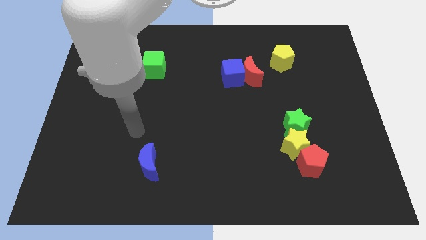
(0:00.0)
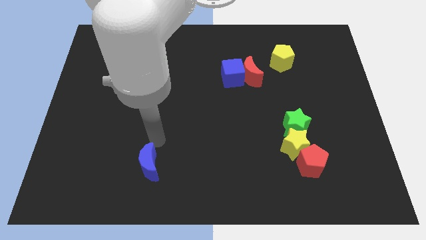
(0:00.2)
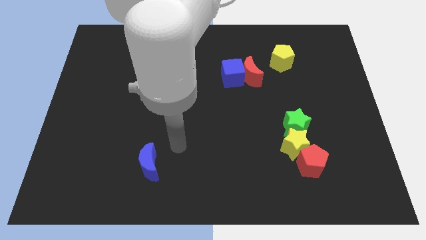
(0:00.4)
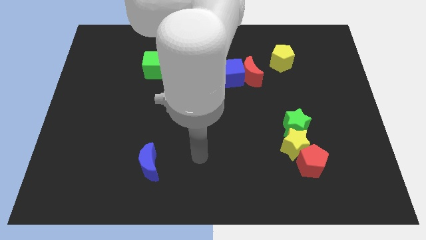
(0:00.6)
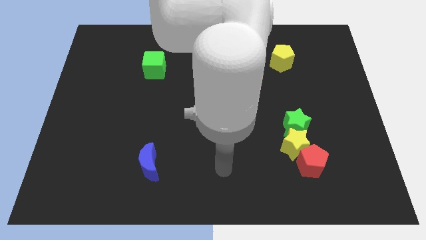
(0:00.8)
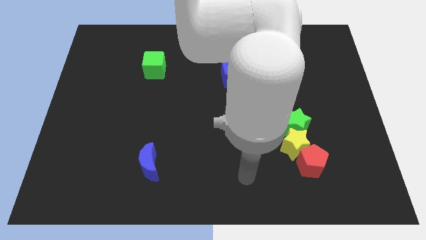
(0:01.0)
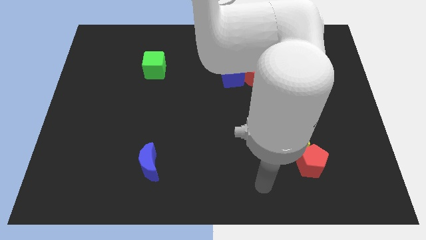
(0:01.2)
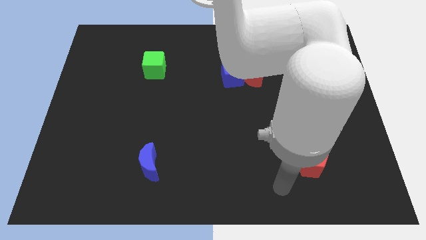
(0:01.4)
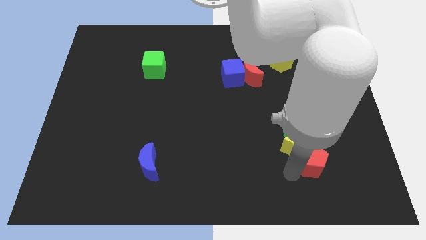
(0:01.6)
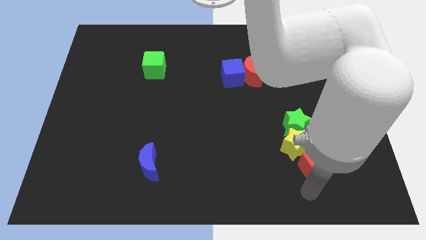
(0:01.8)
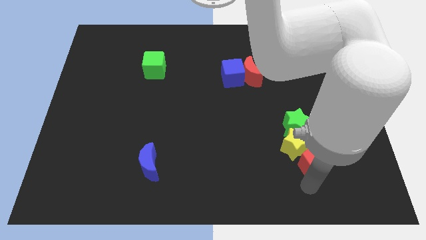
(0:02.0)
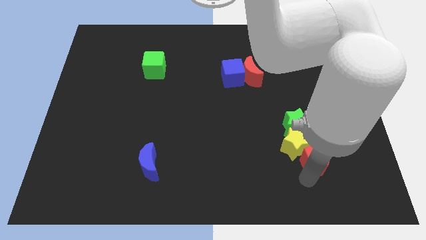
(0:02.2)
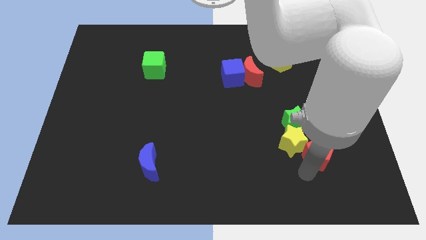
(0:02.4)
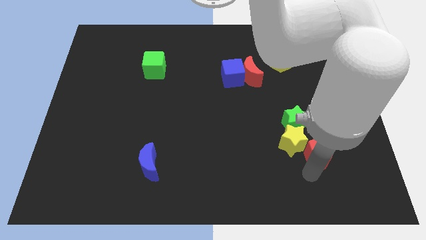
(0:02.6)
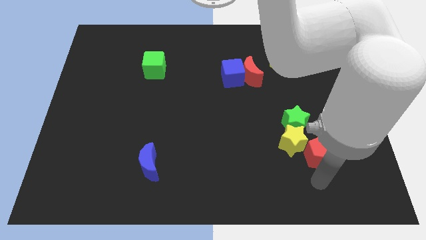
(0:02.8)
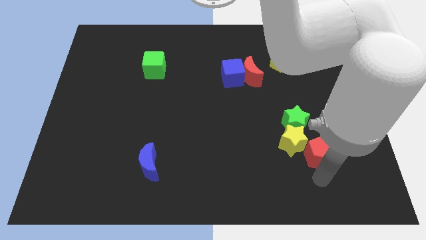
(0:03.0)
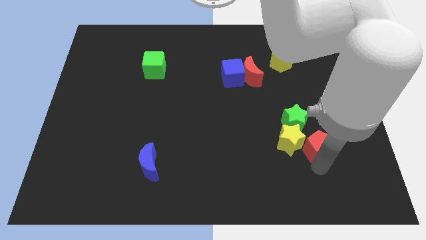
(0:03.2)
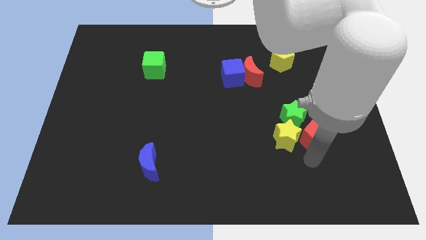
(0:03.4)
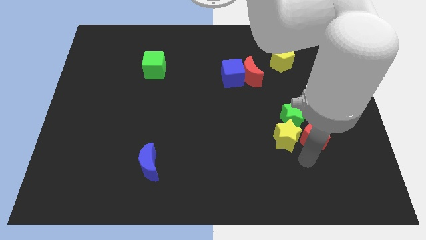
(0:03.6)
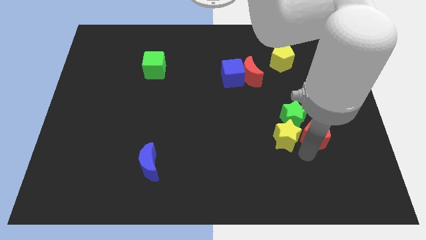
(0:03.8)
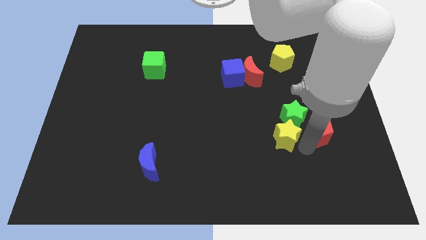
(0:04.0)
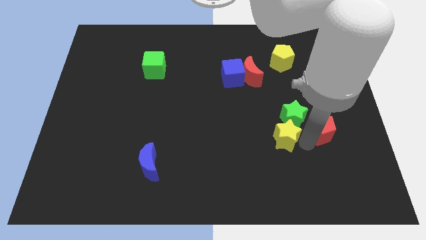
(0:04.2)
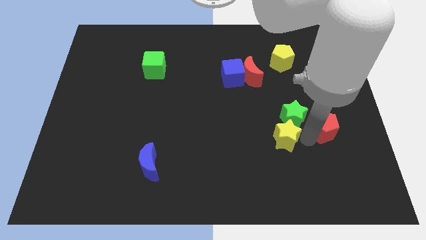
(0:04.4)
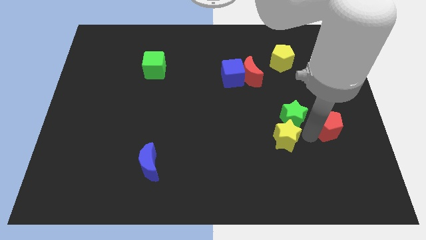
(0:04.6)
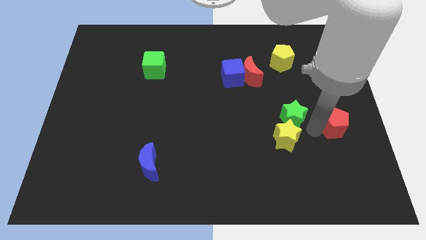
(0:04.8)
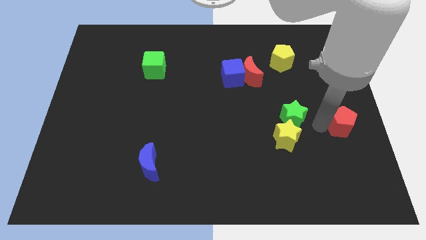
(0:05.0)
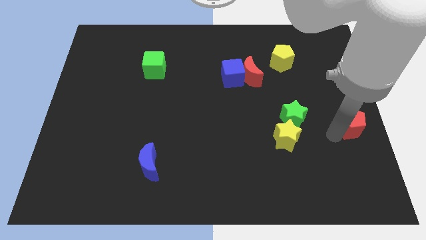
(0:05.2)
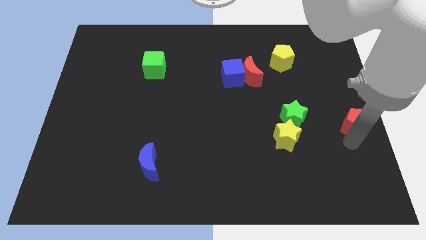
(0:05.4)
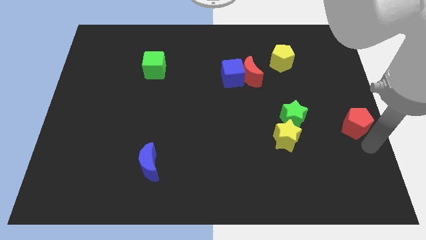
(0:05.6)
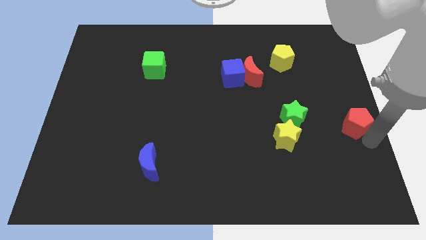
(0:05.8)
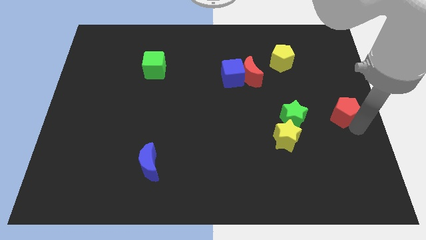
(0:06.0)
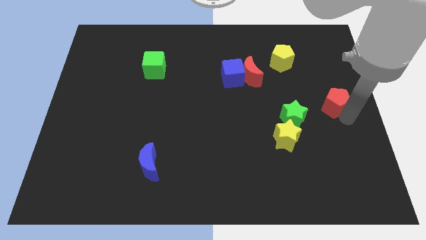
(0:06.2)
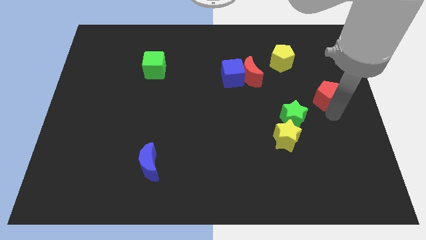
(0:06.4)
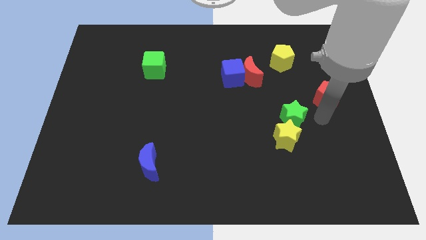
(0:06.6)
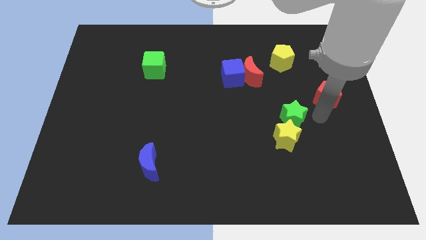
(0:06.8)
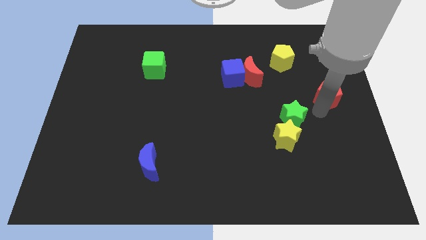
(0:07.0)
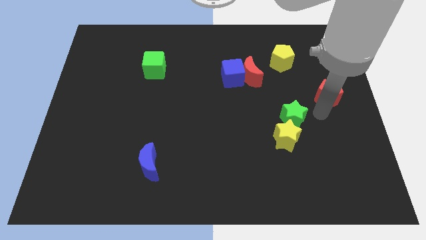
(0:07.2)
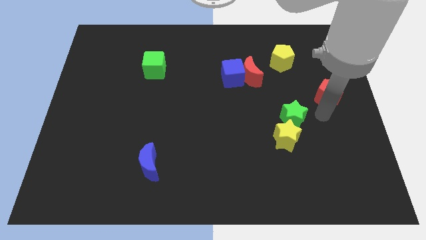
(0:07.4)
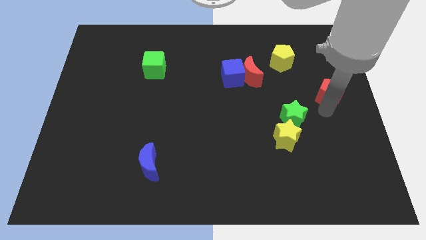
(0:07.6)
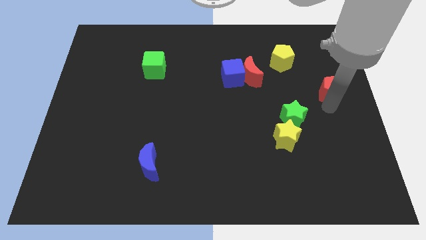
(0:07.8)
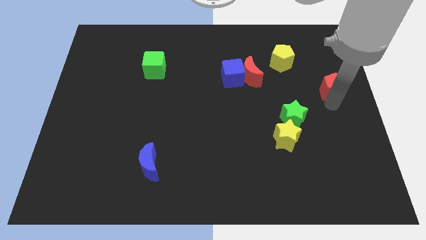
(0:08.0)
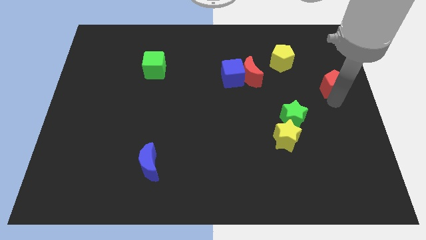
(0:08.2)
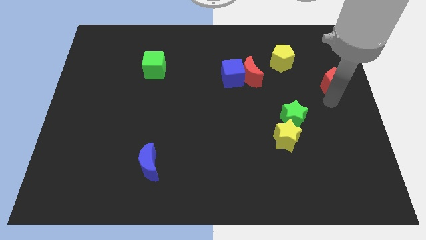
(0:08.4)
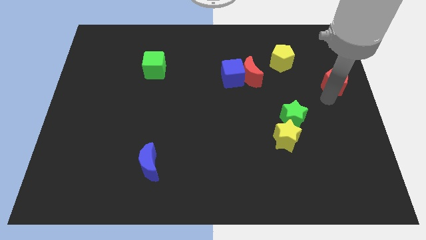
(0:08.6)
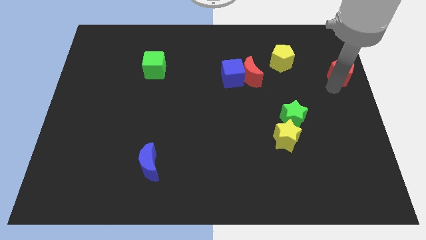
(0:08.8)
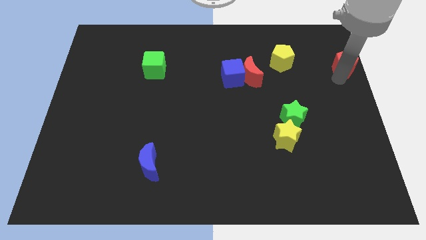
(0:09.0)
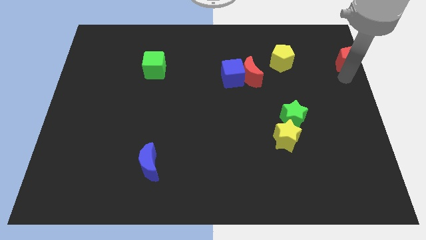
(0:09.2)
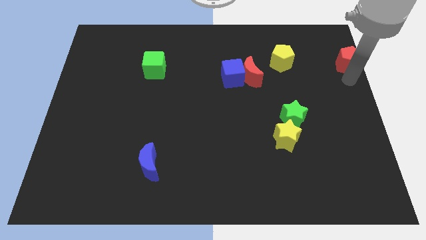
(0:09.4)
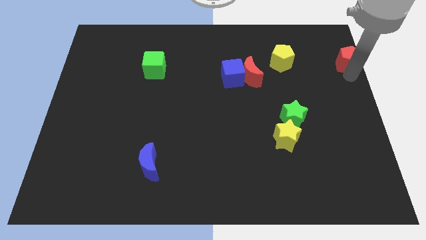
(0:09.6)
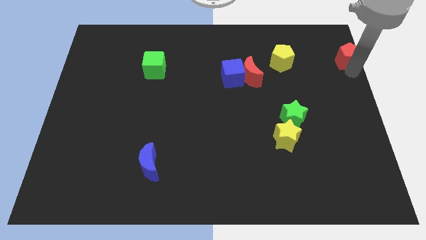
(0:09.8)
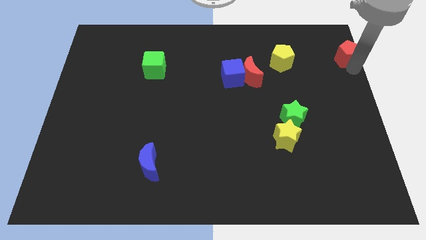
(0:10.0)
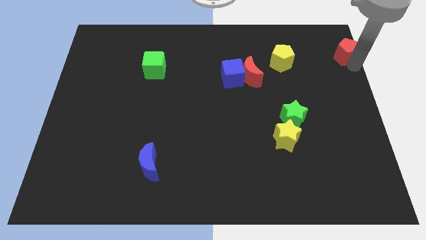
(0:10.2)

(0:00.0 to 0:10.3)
move the red pentagon to the top right

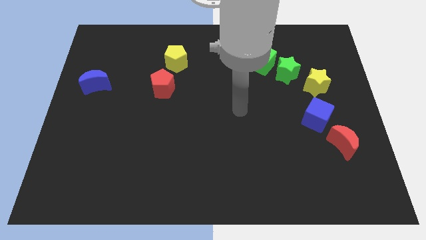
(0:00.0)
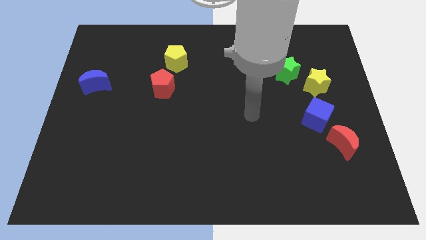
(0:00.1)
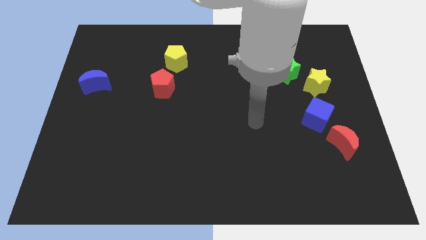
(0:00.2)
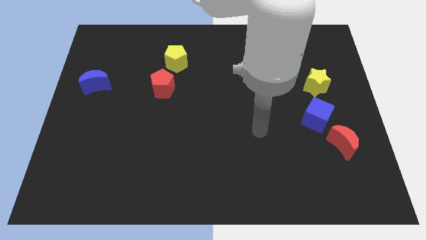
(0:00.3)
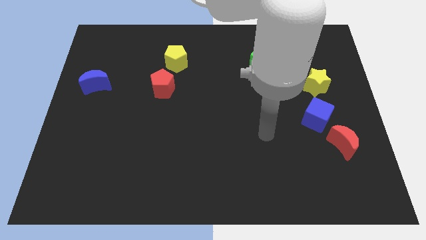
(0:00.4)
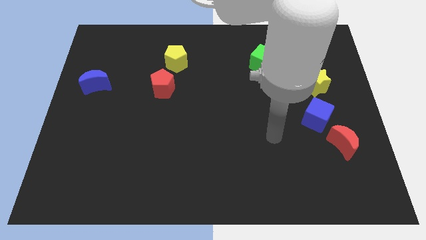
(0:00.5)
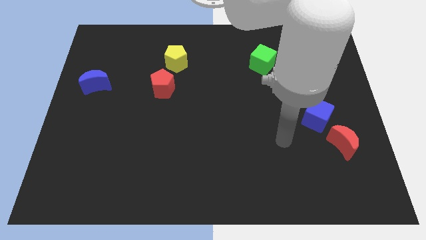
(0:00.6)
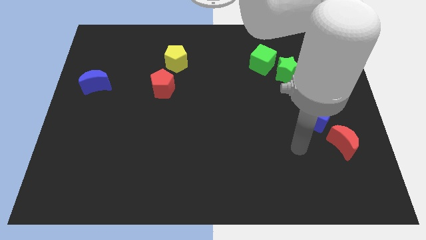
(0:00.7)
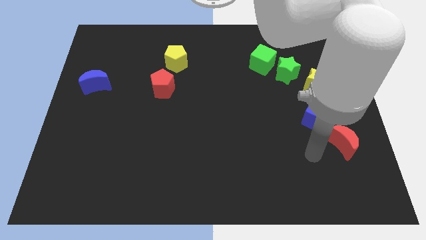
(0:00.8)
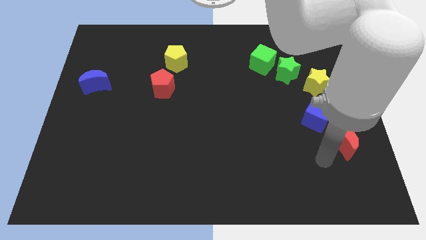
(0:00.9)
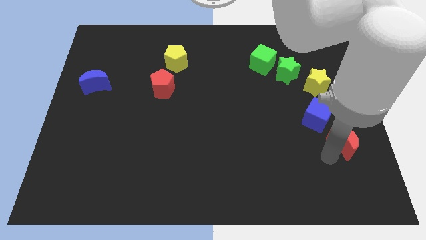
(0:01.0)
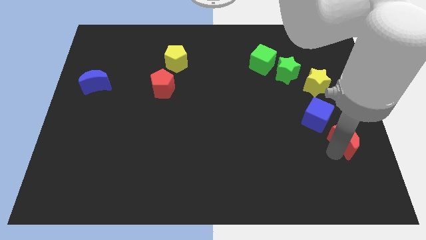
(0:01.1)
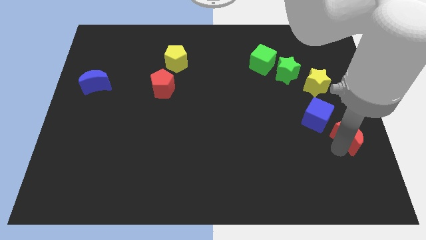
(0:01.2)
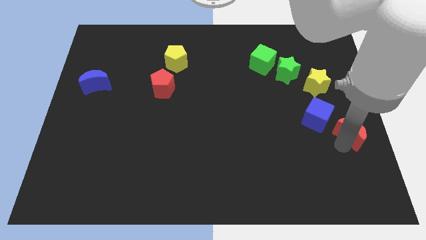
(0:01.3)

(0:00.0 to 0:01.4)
move the red moon to the center right
